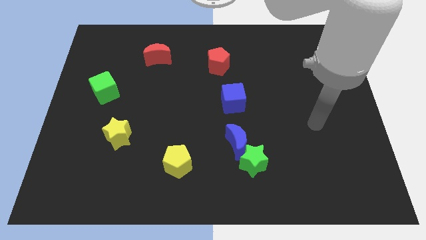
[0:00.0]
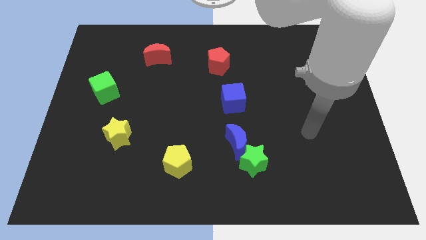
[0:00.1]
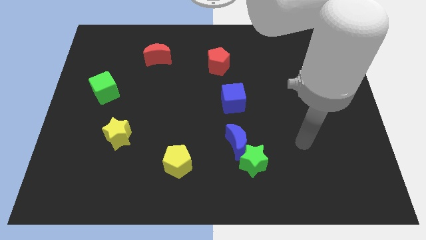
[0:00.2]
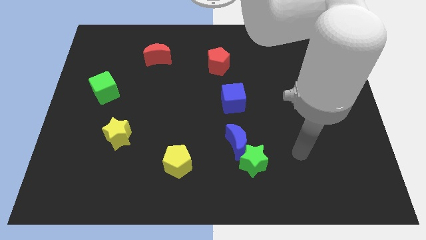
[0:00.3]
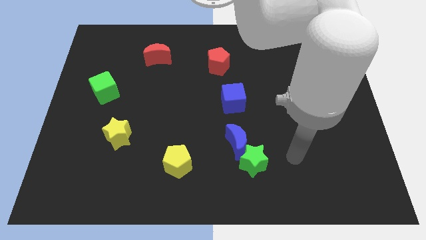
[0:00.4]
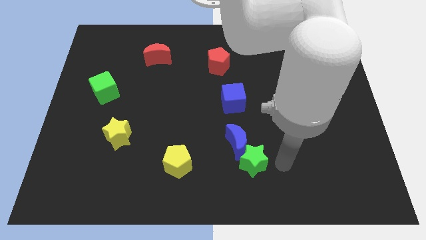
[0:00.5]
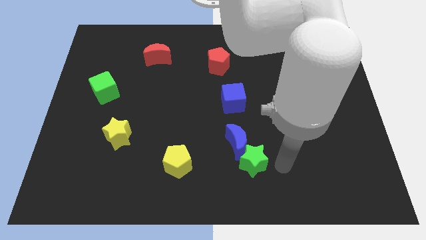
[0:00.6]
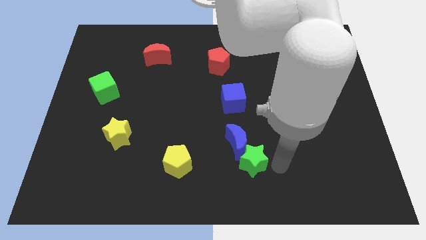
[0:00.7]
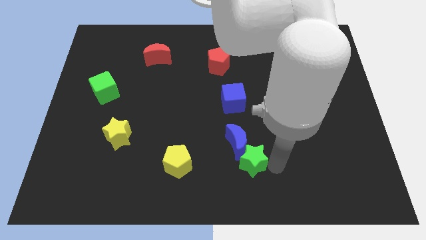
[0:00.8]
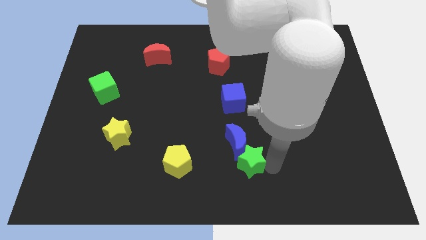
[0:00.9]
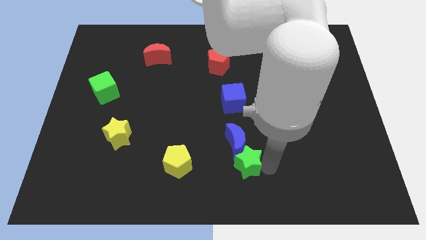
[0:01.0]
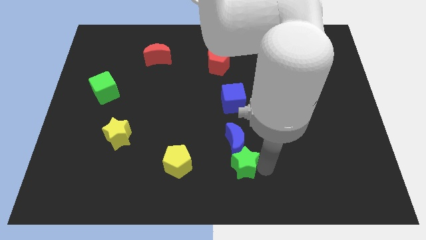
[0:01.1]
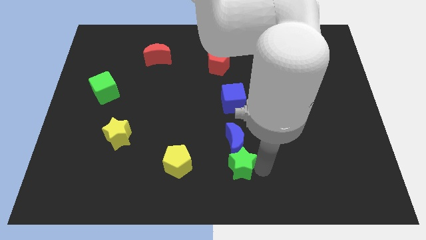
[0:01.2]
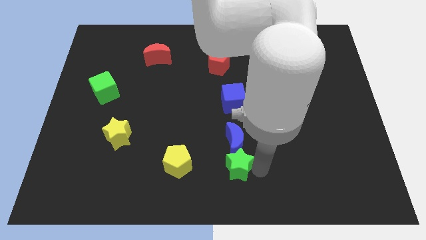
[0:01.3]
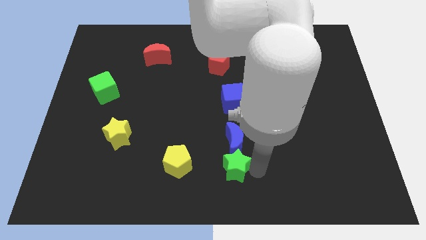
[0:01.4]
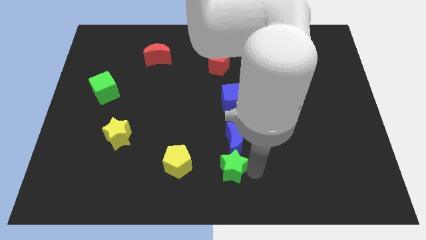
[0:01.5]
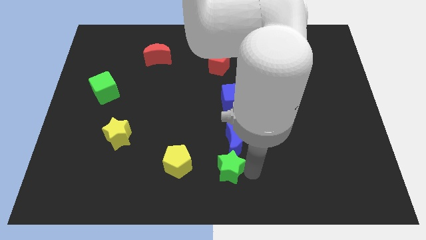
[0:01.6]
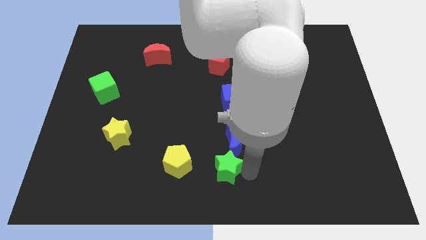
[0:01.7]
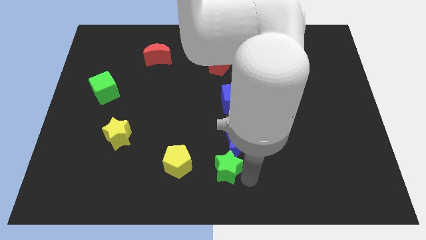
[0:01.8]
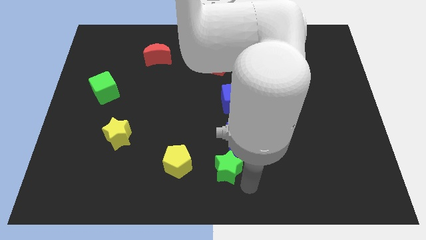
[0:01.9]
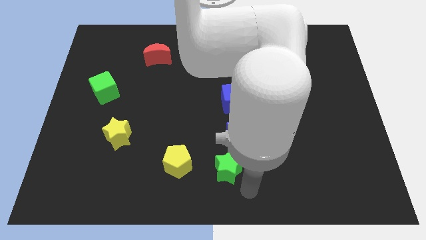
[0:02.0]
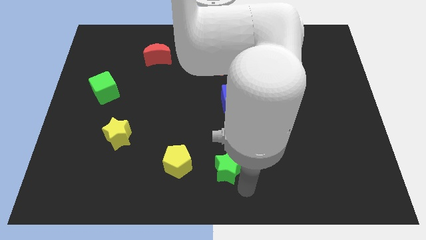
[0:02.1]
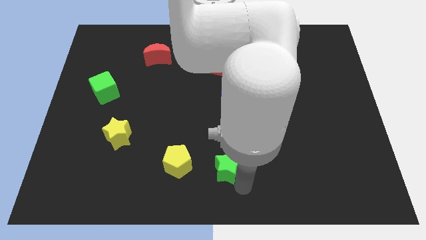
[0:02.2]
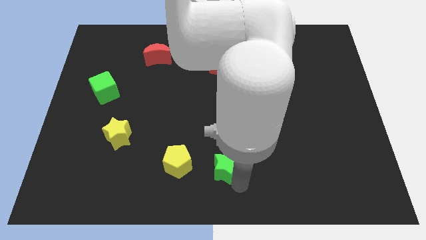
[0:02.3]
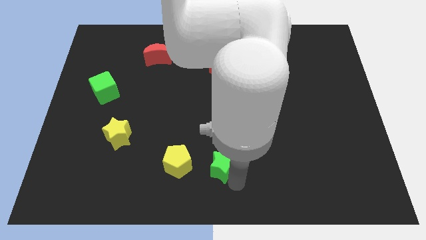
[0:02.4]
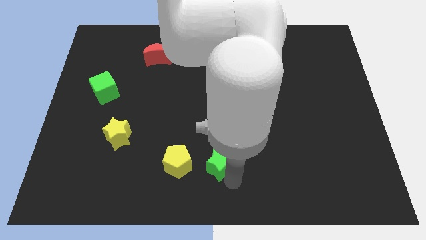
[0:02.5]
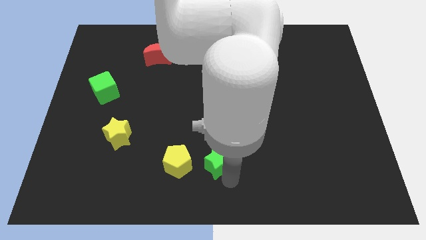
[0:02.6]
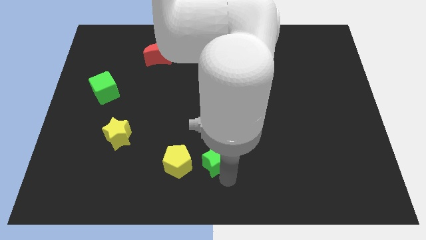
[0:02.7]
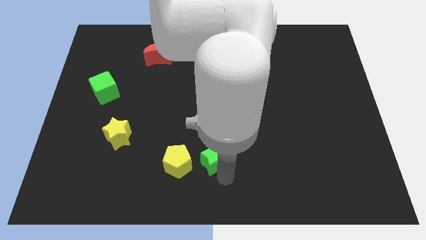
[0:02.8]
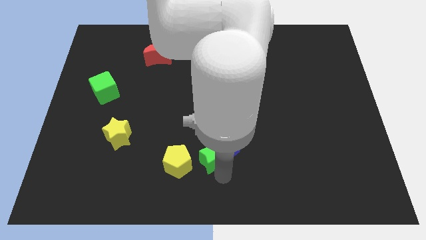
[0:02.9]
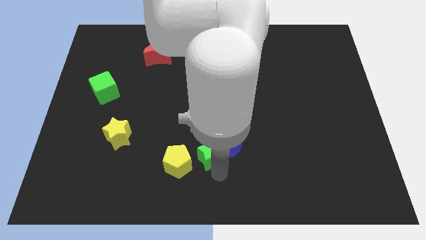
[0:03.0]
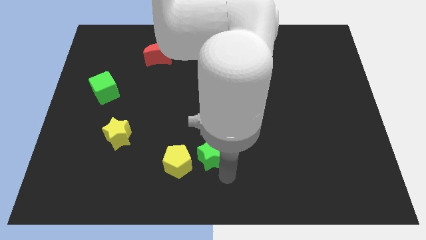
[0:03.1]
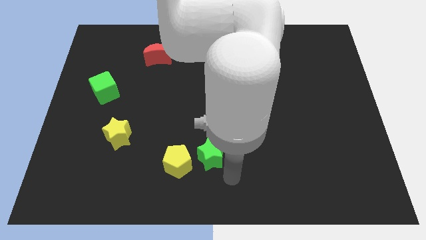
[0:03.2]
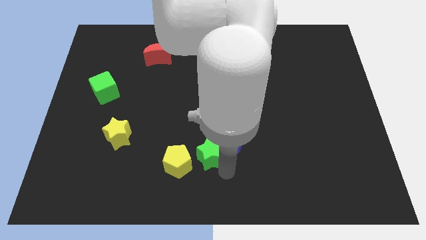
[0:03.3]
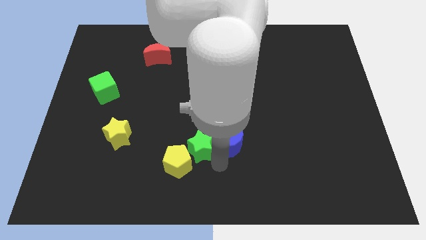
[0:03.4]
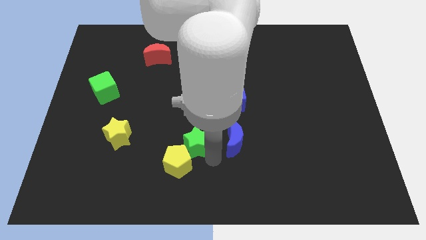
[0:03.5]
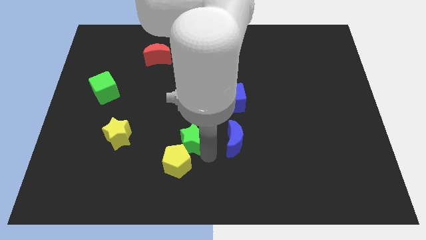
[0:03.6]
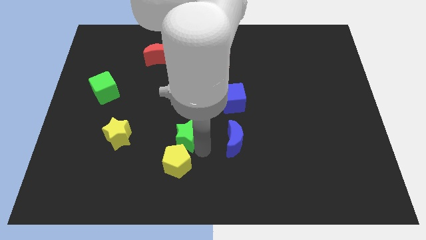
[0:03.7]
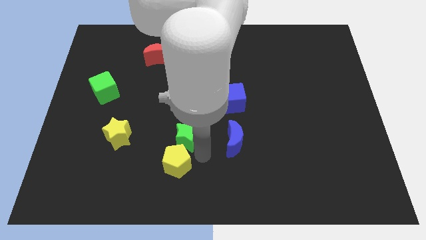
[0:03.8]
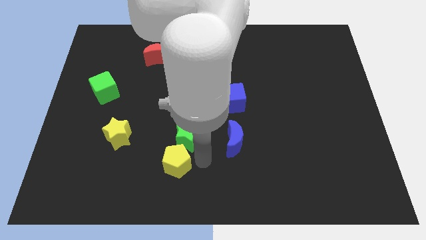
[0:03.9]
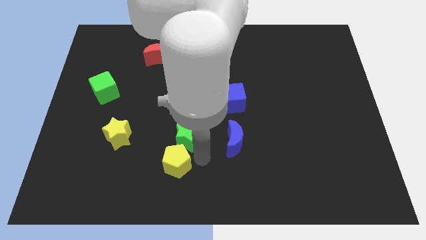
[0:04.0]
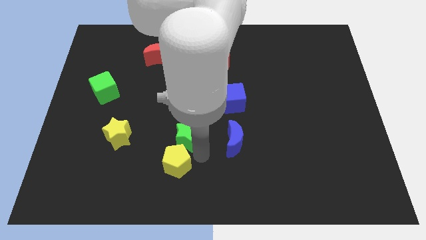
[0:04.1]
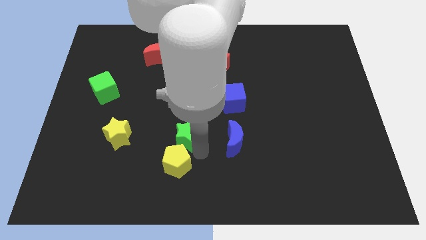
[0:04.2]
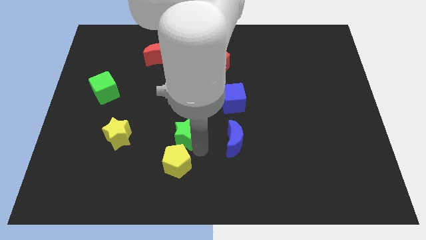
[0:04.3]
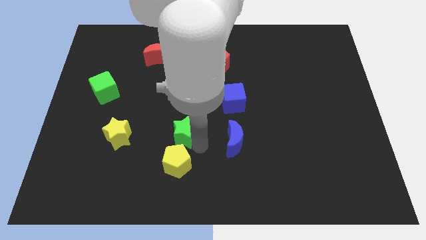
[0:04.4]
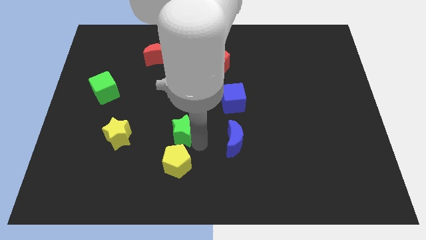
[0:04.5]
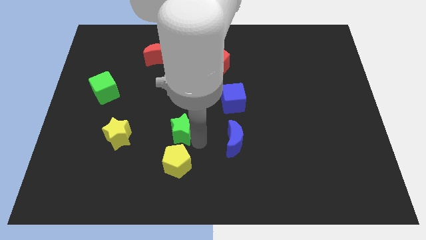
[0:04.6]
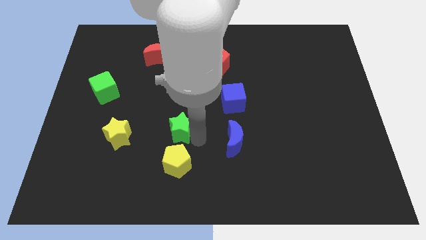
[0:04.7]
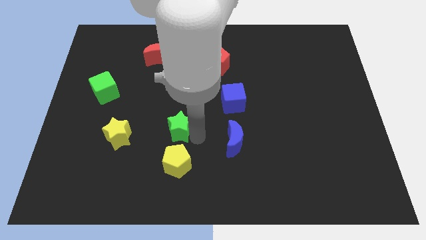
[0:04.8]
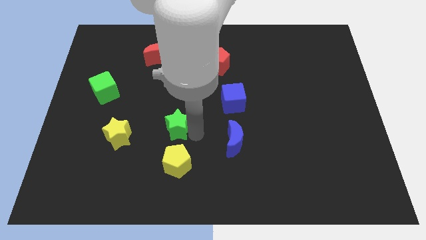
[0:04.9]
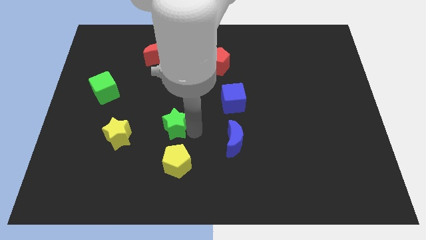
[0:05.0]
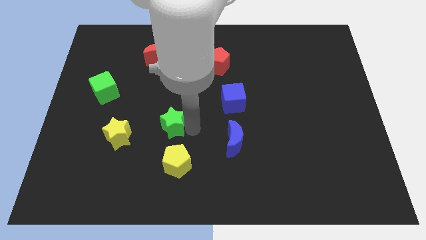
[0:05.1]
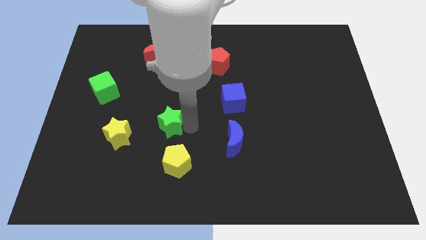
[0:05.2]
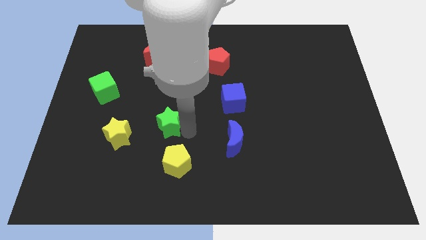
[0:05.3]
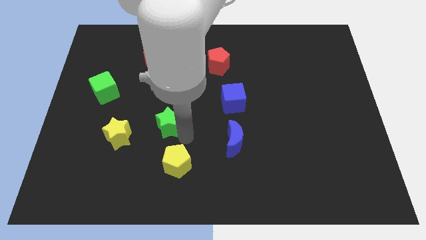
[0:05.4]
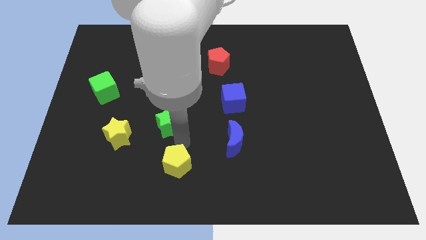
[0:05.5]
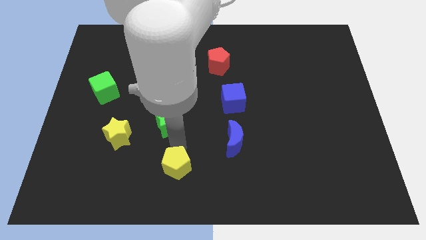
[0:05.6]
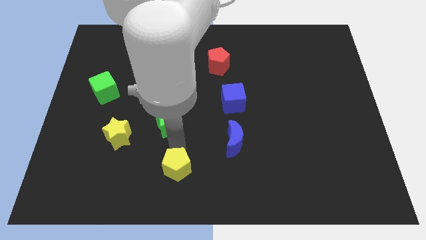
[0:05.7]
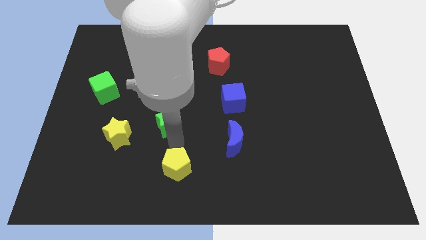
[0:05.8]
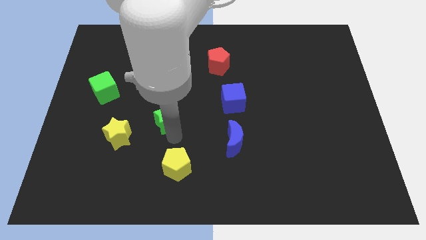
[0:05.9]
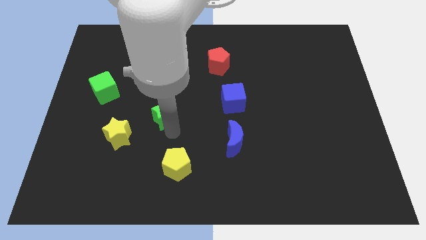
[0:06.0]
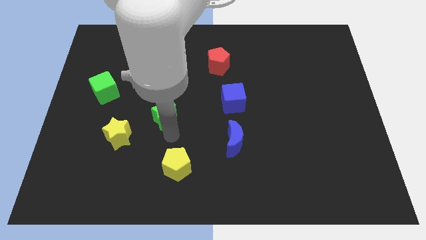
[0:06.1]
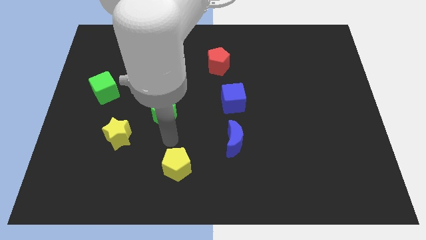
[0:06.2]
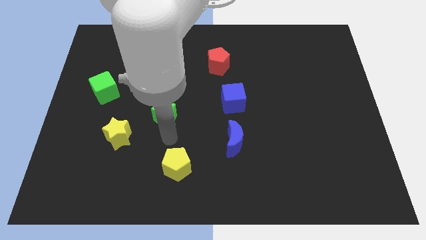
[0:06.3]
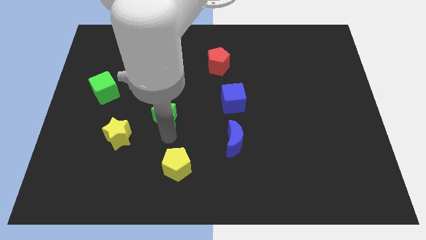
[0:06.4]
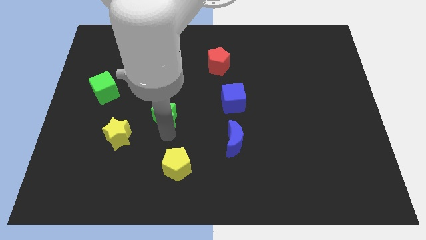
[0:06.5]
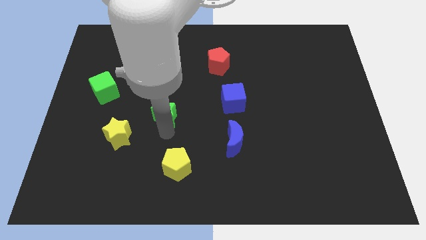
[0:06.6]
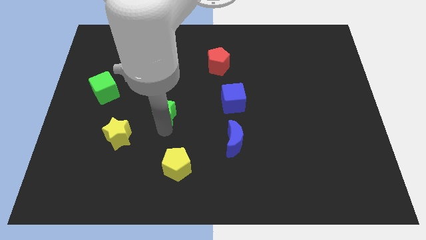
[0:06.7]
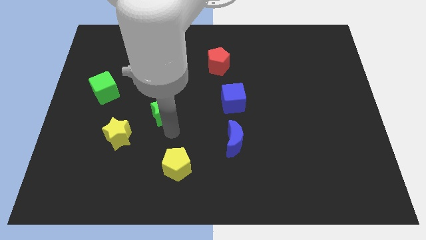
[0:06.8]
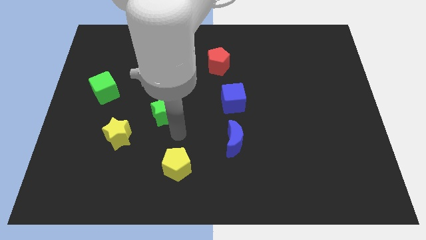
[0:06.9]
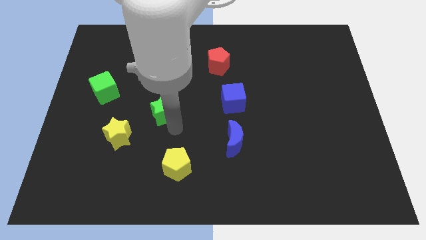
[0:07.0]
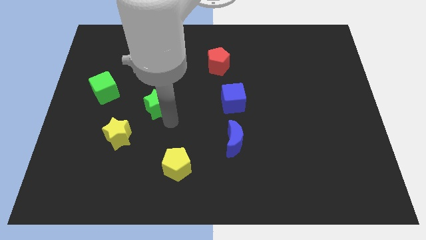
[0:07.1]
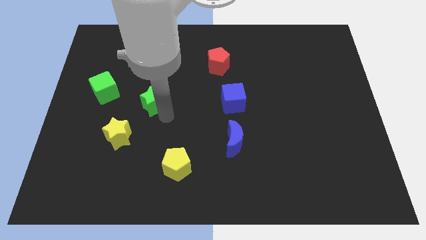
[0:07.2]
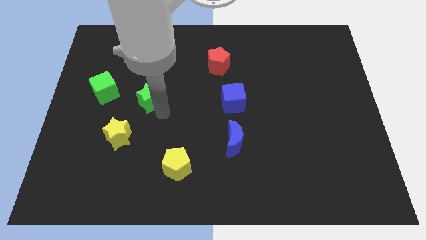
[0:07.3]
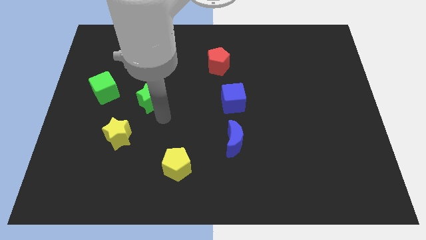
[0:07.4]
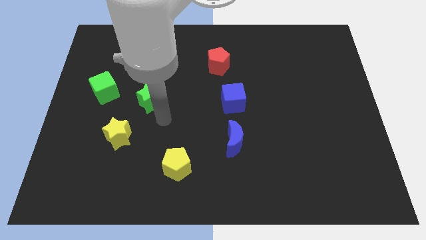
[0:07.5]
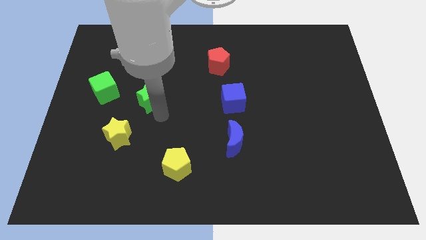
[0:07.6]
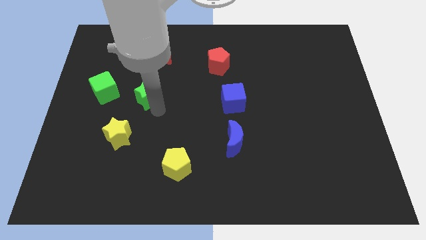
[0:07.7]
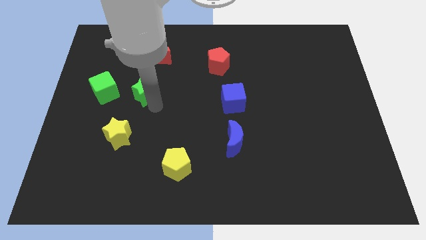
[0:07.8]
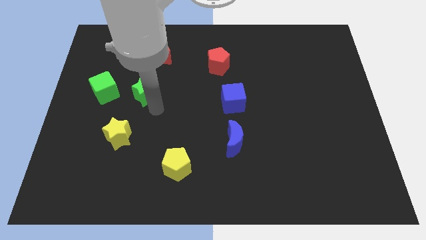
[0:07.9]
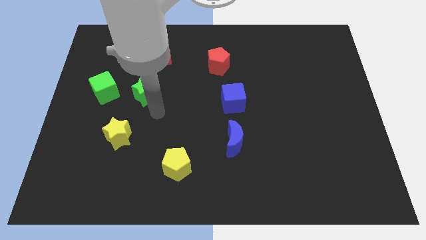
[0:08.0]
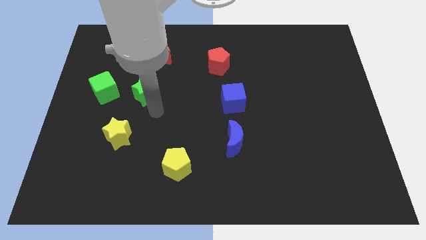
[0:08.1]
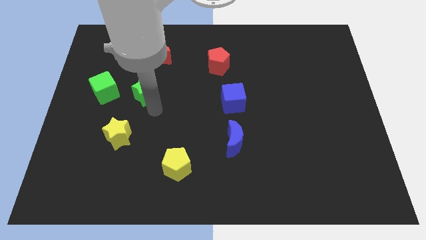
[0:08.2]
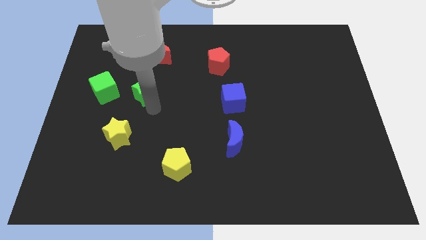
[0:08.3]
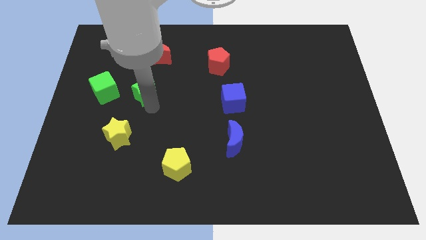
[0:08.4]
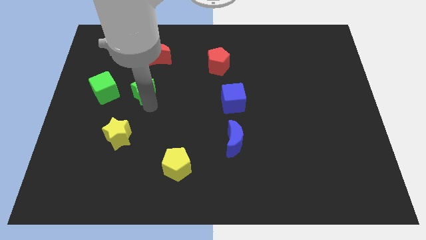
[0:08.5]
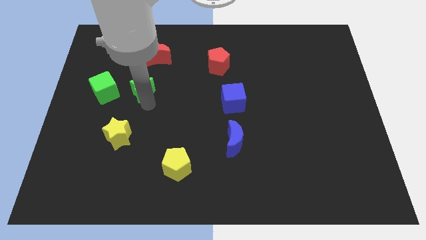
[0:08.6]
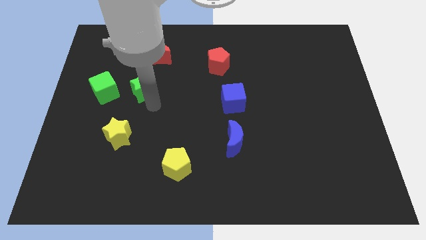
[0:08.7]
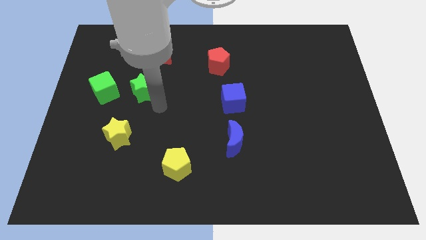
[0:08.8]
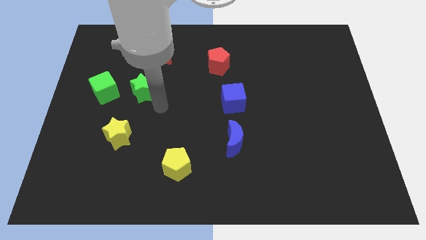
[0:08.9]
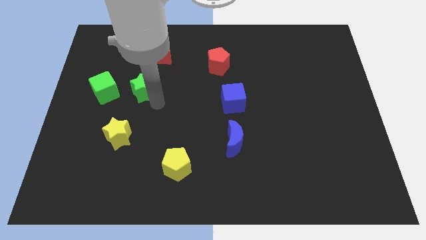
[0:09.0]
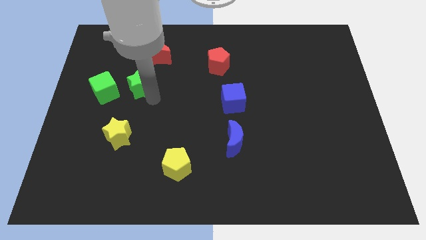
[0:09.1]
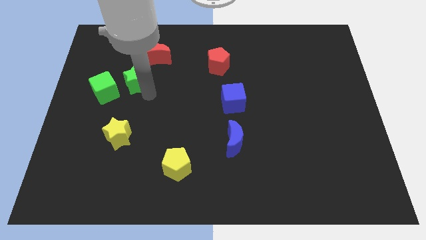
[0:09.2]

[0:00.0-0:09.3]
move the green star diagonally up and to the right of the green cube
